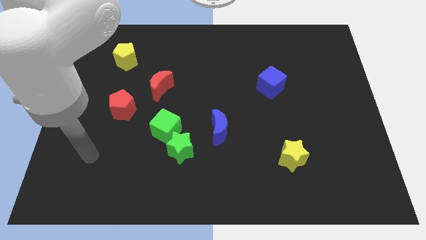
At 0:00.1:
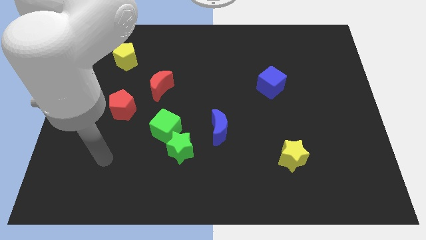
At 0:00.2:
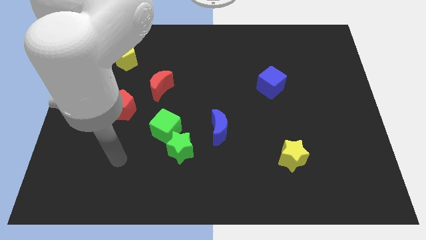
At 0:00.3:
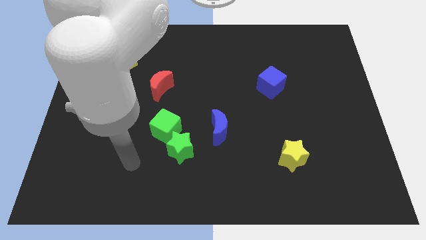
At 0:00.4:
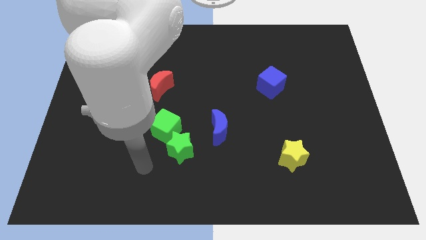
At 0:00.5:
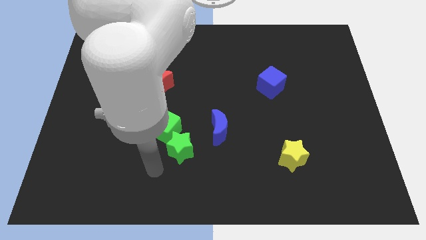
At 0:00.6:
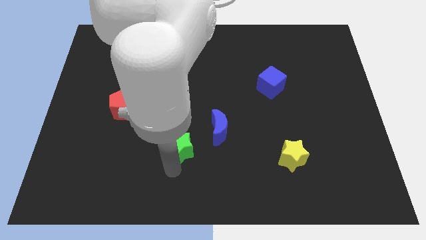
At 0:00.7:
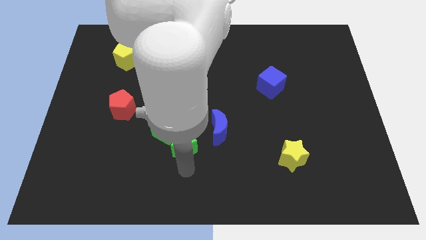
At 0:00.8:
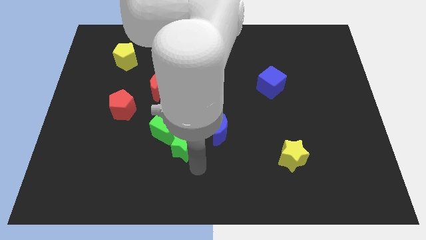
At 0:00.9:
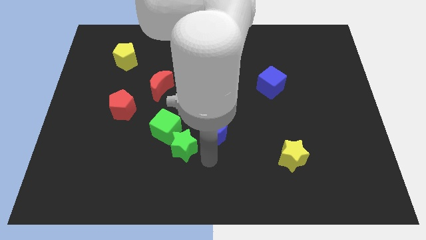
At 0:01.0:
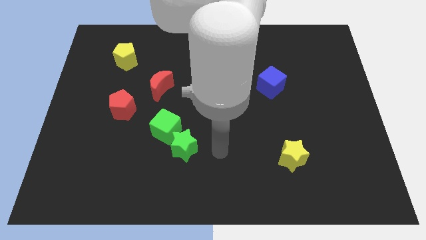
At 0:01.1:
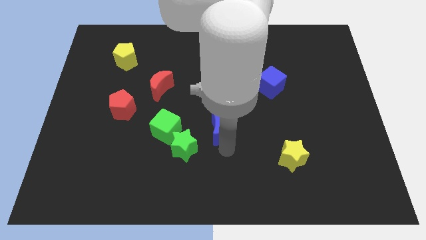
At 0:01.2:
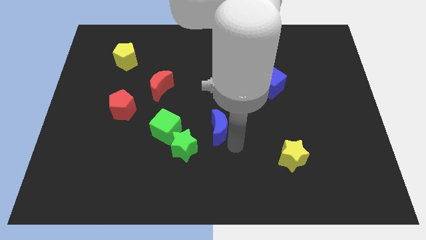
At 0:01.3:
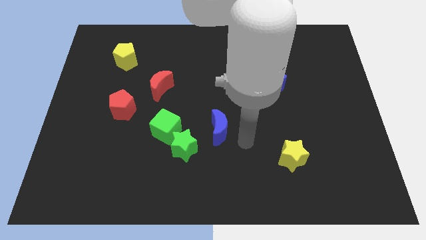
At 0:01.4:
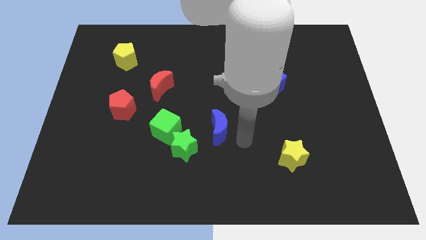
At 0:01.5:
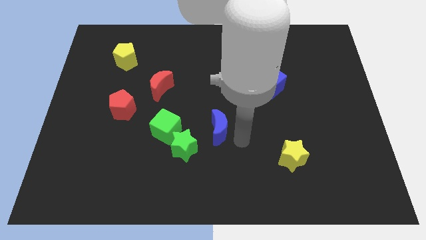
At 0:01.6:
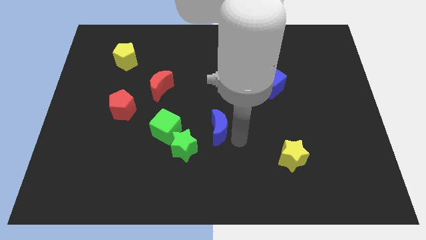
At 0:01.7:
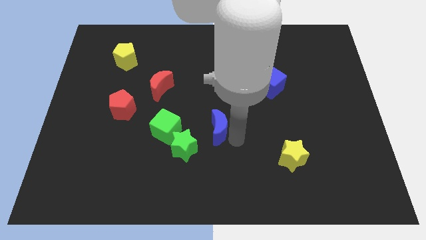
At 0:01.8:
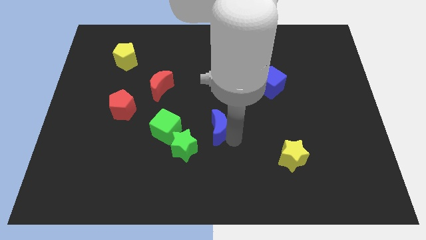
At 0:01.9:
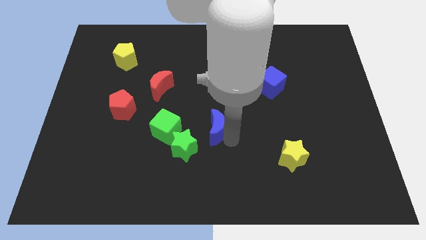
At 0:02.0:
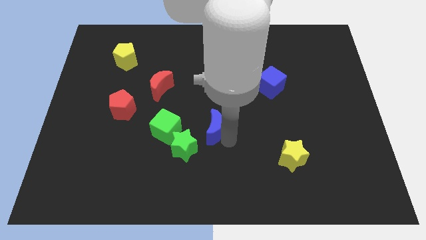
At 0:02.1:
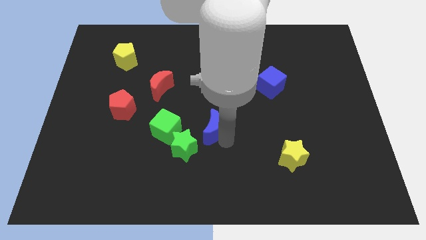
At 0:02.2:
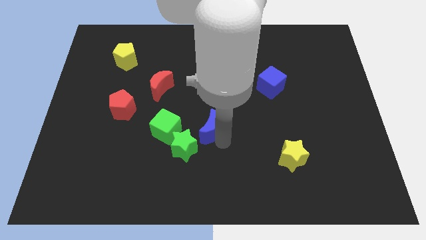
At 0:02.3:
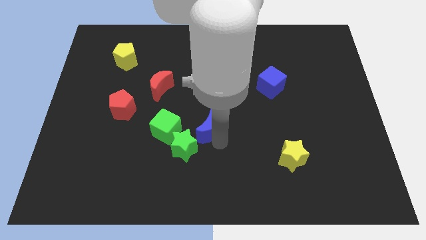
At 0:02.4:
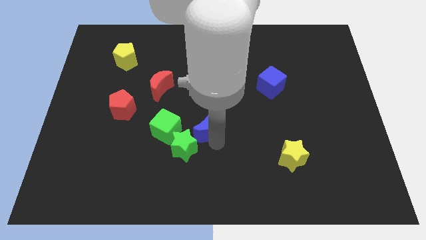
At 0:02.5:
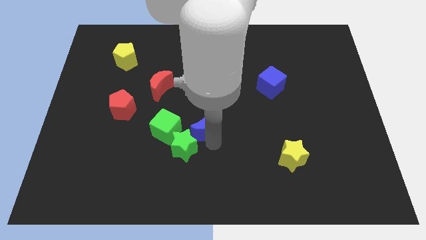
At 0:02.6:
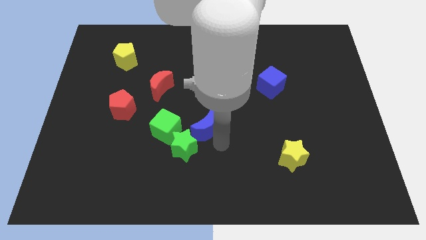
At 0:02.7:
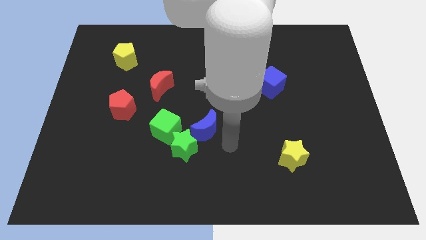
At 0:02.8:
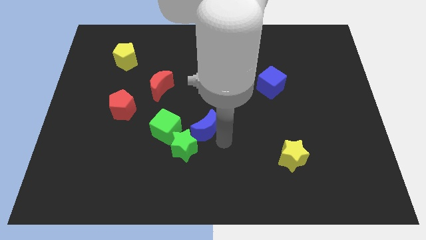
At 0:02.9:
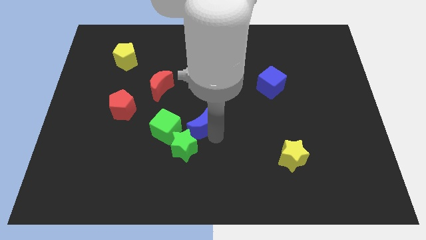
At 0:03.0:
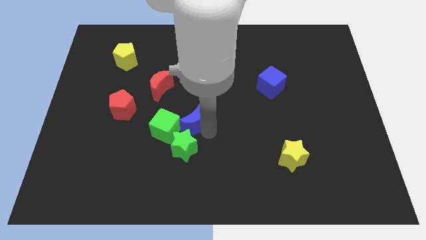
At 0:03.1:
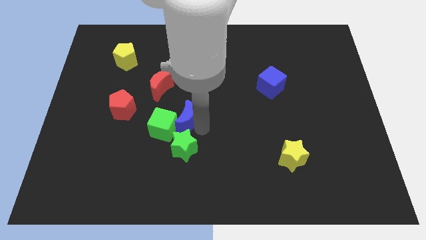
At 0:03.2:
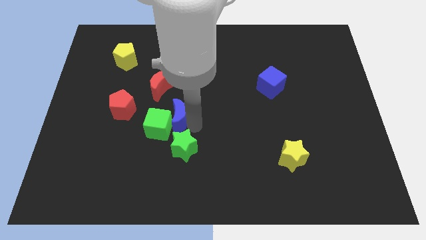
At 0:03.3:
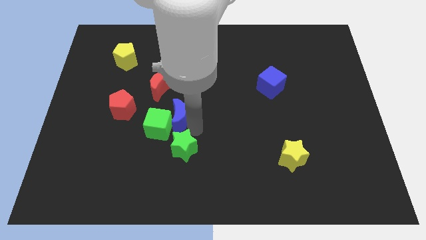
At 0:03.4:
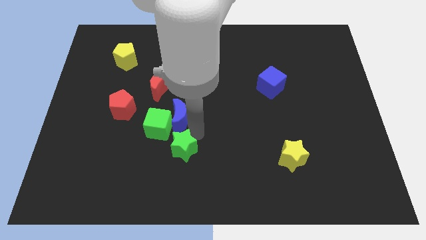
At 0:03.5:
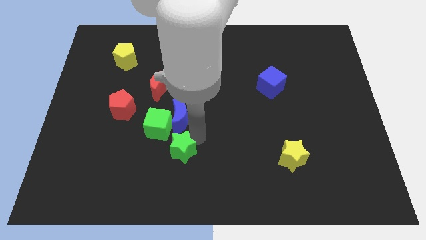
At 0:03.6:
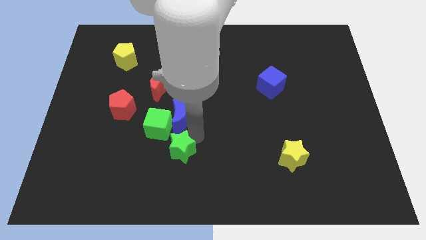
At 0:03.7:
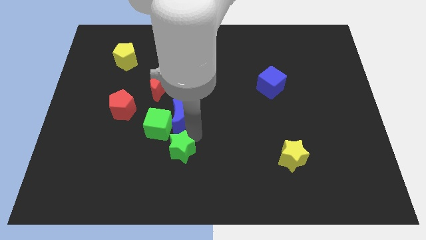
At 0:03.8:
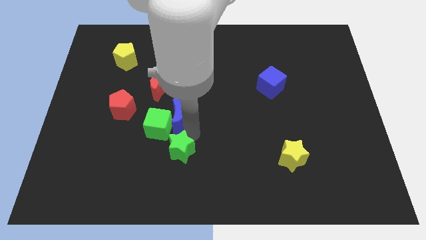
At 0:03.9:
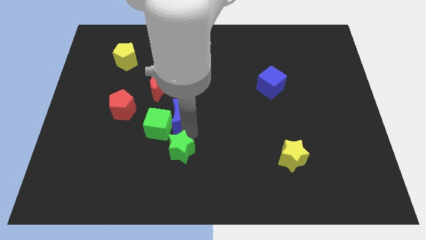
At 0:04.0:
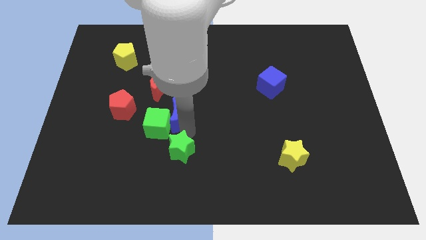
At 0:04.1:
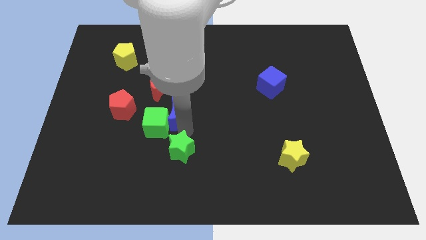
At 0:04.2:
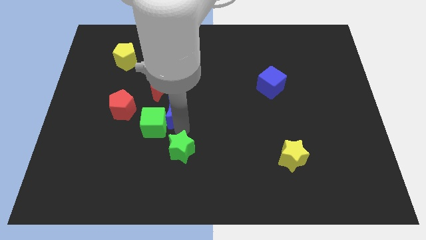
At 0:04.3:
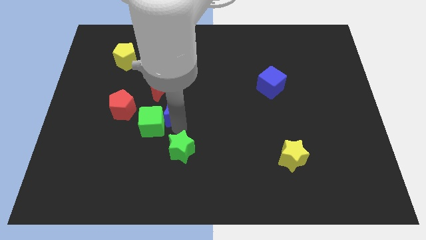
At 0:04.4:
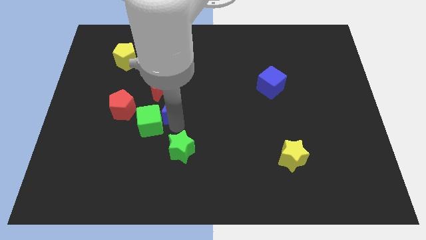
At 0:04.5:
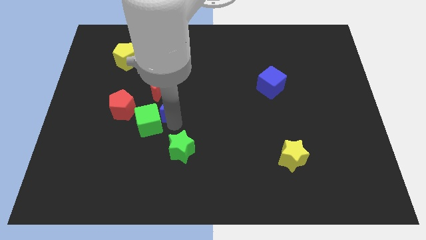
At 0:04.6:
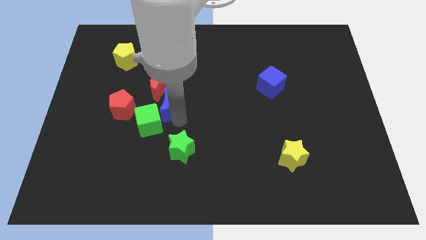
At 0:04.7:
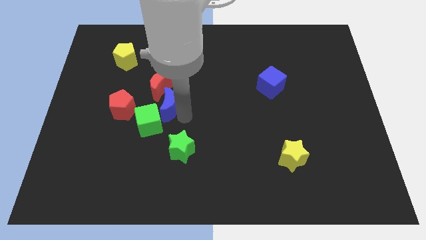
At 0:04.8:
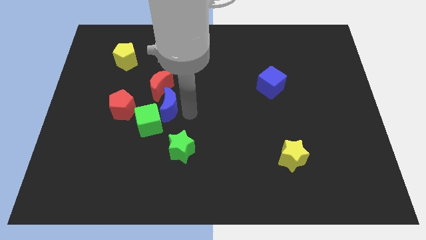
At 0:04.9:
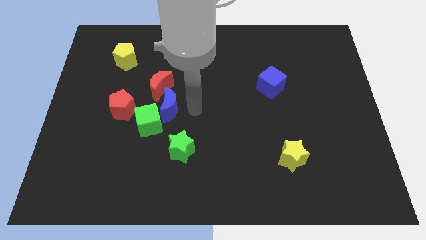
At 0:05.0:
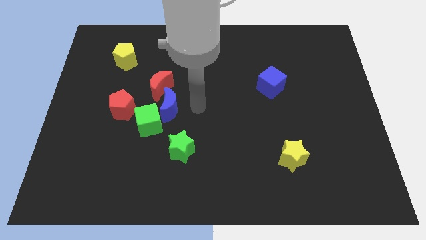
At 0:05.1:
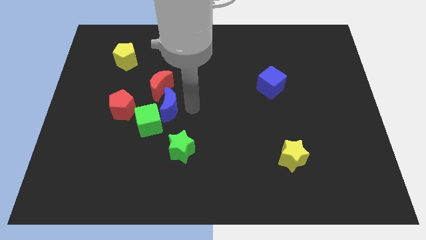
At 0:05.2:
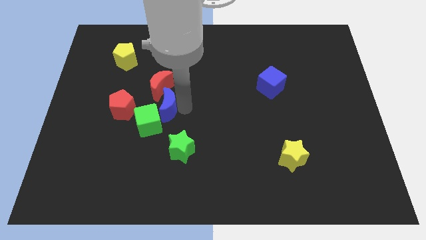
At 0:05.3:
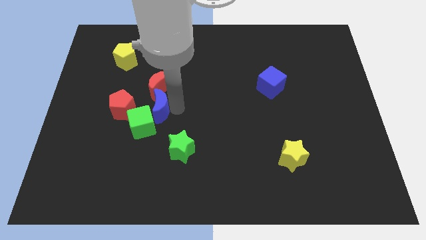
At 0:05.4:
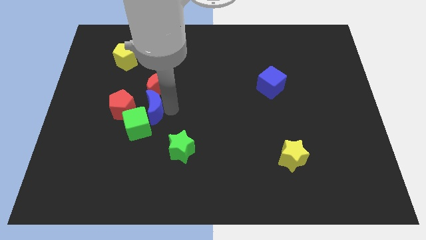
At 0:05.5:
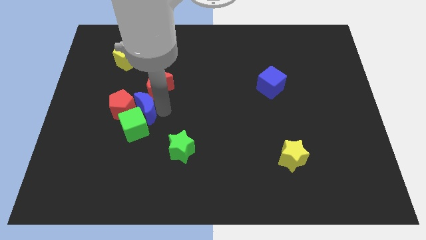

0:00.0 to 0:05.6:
push the blue moon close to the red pentagon

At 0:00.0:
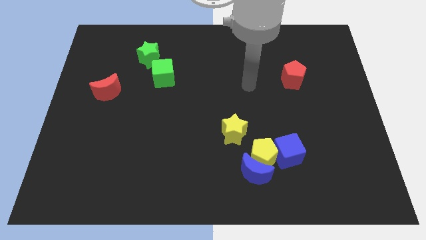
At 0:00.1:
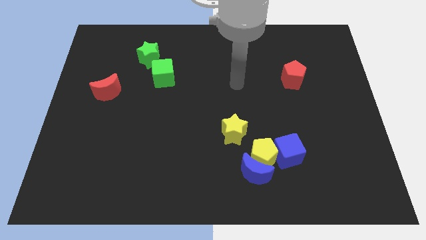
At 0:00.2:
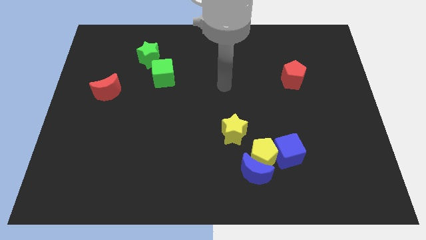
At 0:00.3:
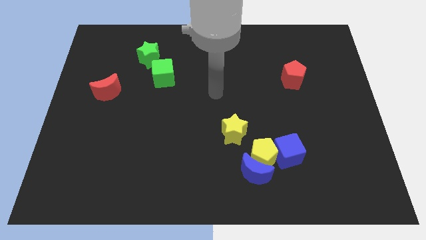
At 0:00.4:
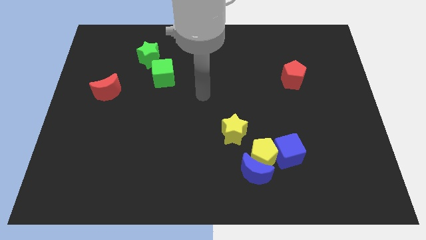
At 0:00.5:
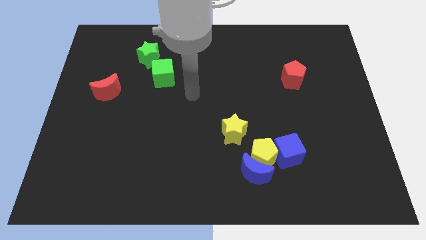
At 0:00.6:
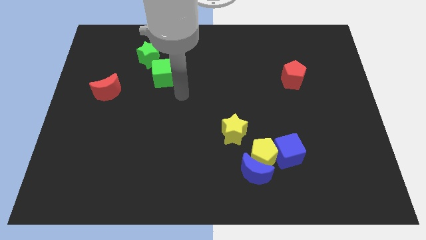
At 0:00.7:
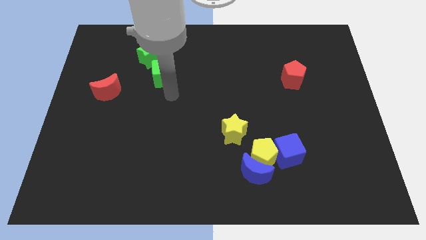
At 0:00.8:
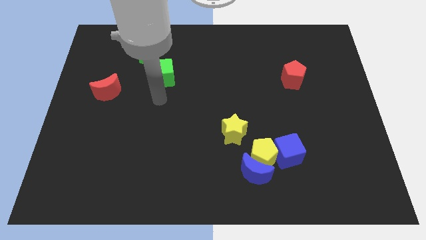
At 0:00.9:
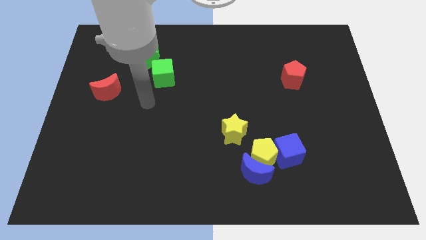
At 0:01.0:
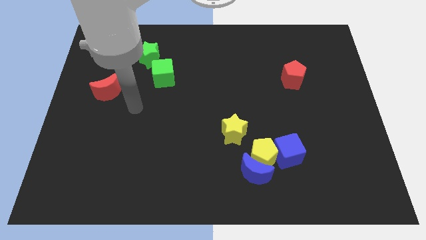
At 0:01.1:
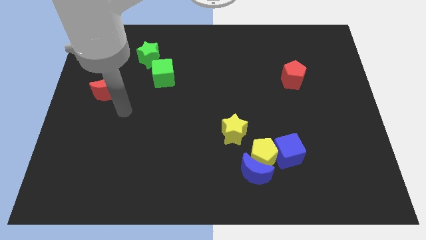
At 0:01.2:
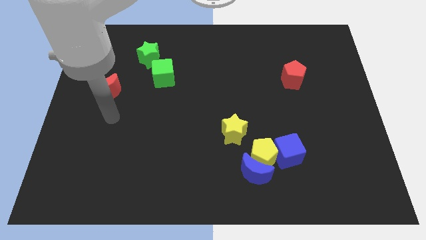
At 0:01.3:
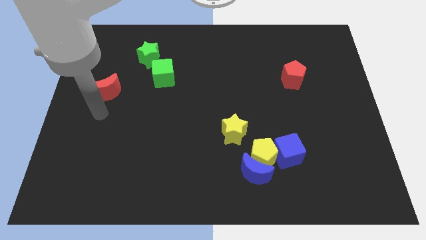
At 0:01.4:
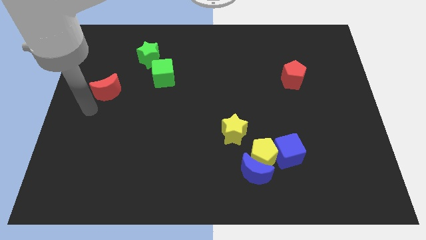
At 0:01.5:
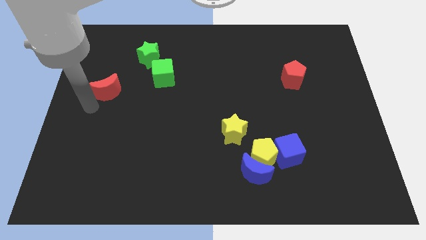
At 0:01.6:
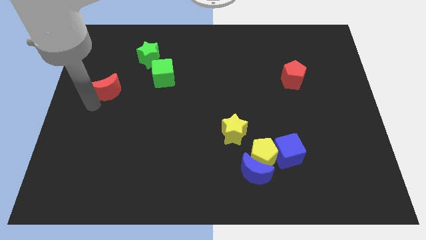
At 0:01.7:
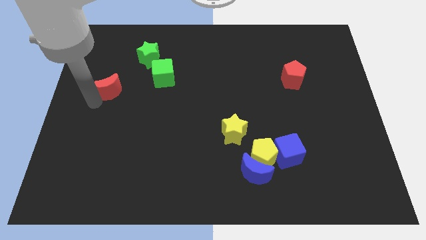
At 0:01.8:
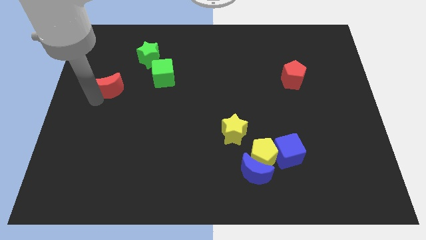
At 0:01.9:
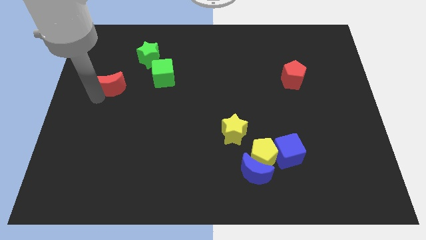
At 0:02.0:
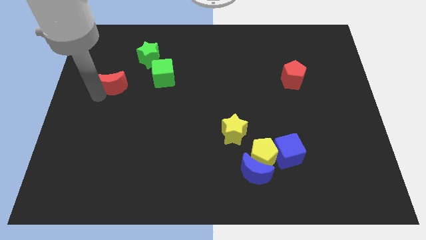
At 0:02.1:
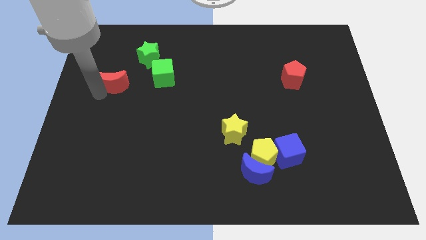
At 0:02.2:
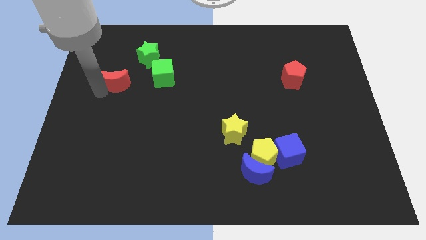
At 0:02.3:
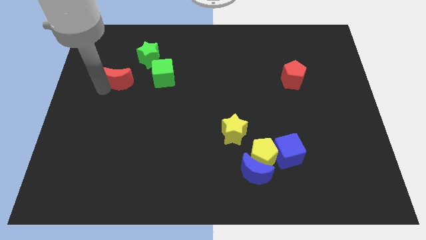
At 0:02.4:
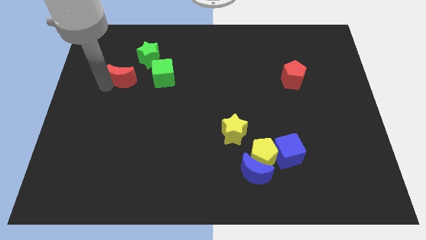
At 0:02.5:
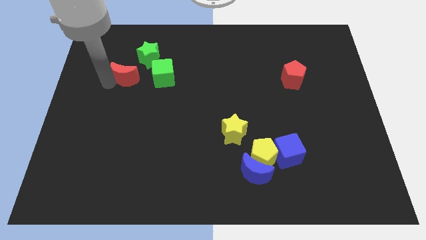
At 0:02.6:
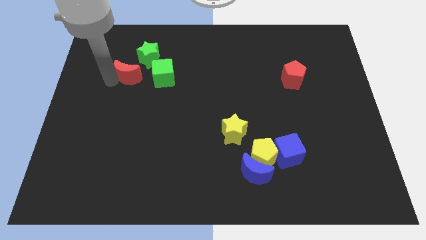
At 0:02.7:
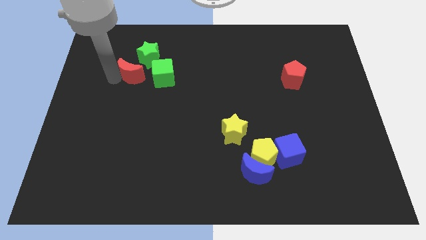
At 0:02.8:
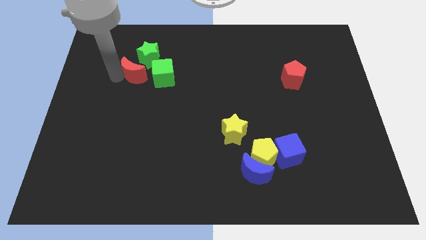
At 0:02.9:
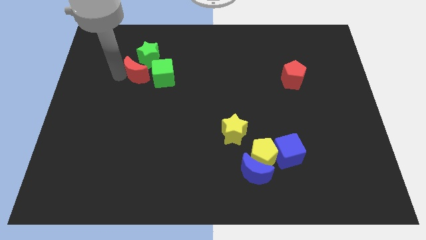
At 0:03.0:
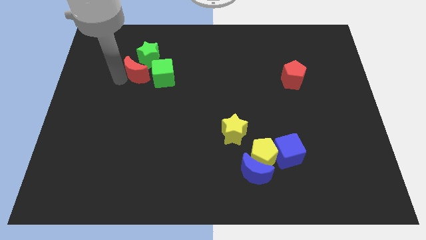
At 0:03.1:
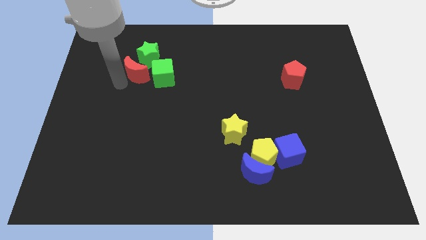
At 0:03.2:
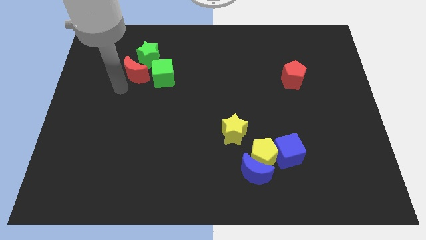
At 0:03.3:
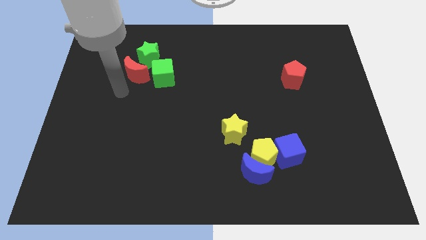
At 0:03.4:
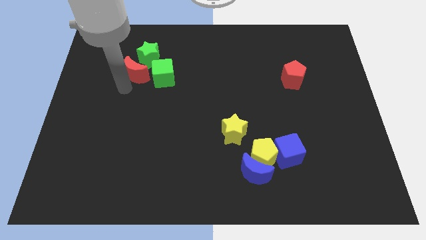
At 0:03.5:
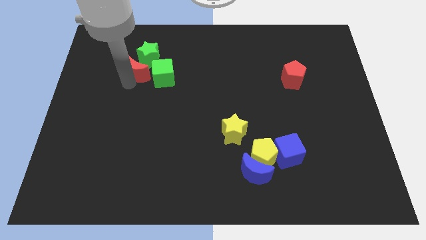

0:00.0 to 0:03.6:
slide the red moon close to the green star
